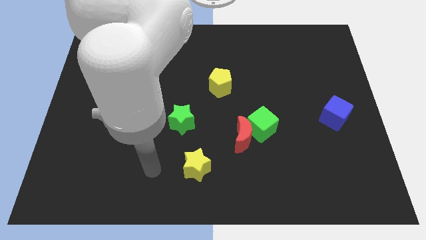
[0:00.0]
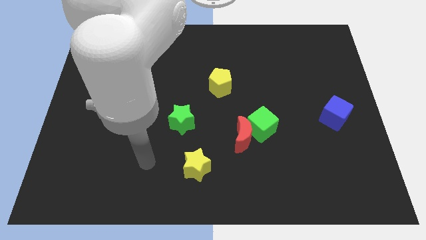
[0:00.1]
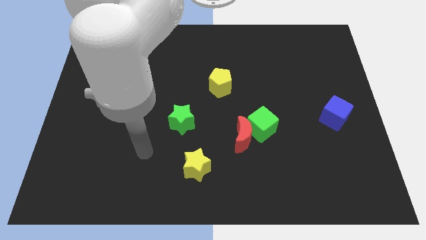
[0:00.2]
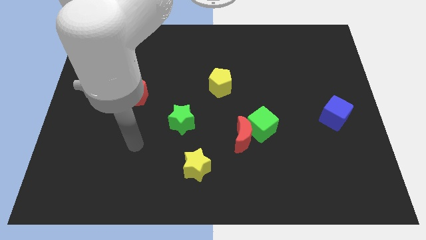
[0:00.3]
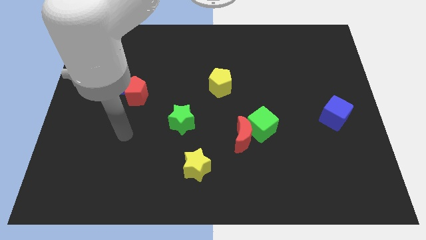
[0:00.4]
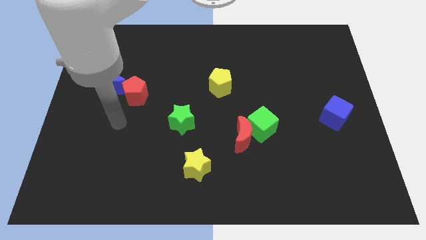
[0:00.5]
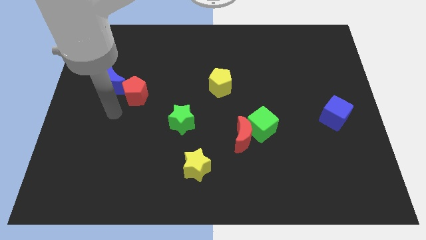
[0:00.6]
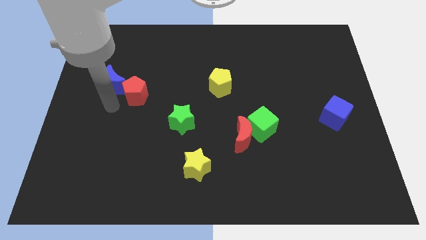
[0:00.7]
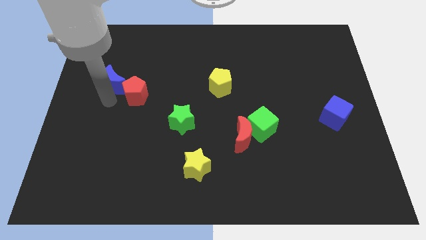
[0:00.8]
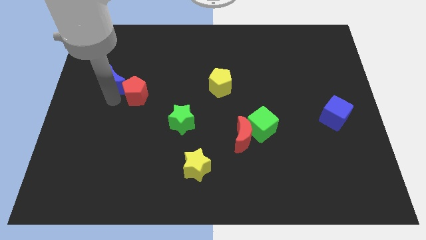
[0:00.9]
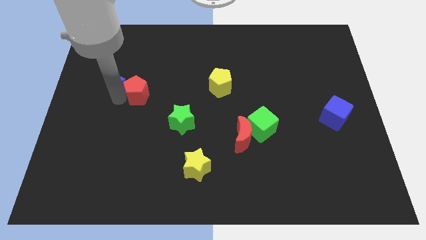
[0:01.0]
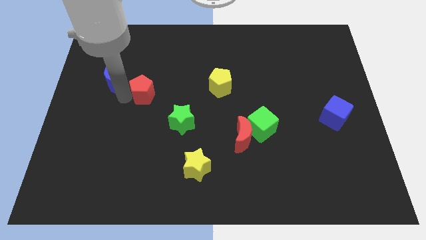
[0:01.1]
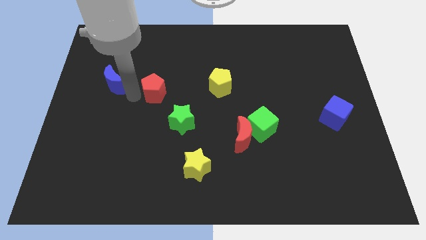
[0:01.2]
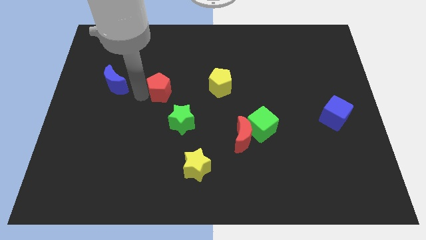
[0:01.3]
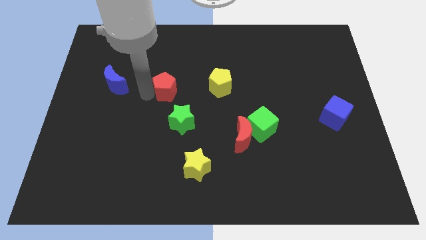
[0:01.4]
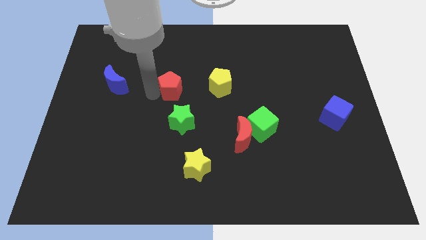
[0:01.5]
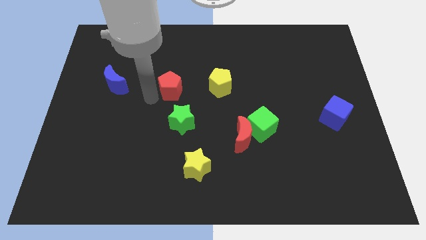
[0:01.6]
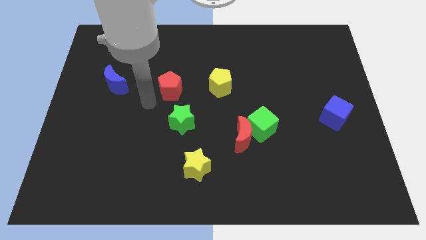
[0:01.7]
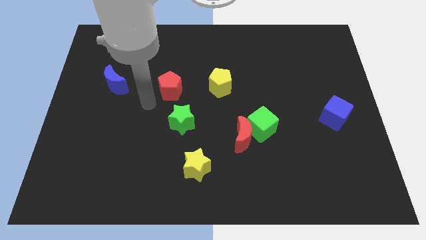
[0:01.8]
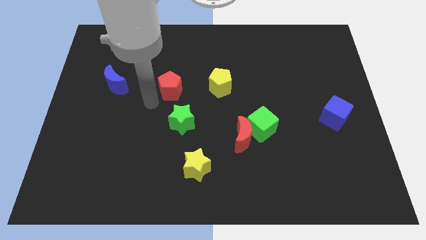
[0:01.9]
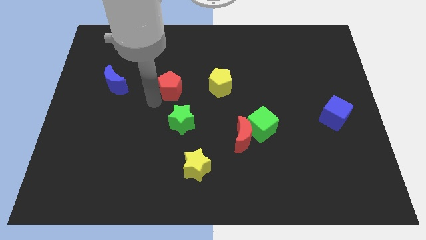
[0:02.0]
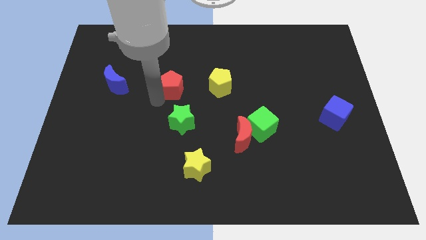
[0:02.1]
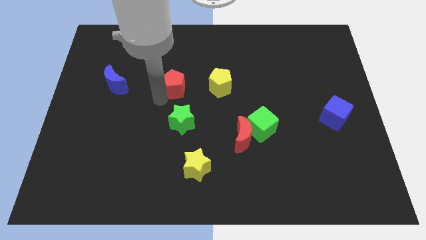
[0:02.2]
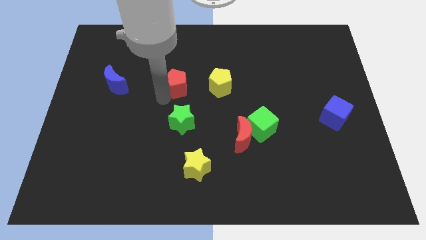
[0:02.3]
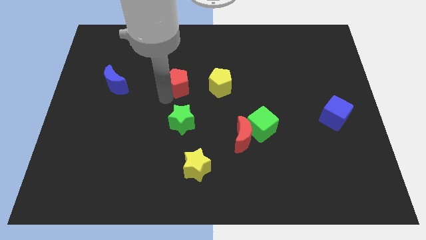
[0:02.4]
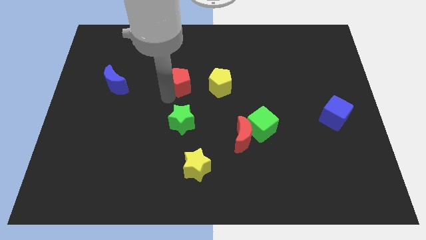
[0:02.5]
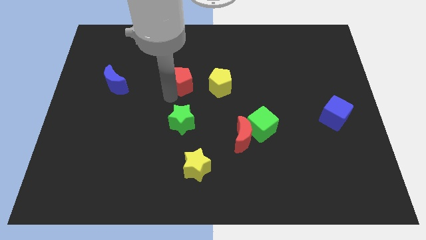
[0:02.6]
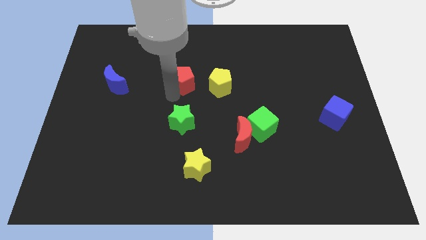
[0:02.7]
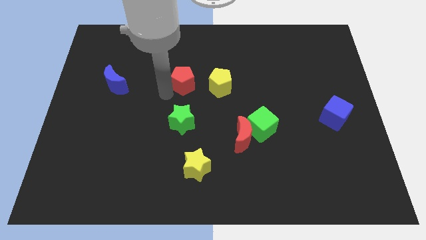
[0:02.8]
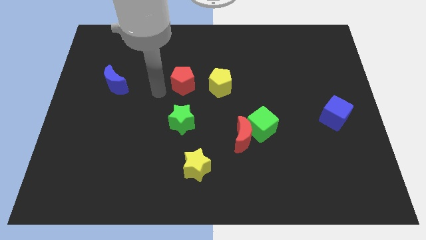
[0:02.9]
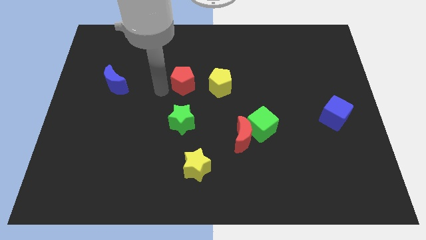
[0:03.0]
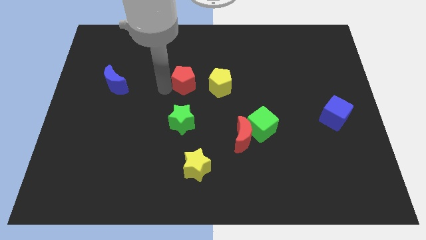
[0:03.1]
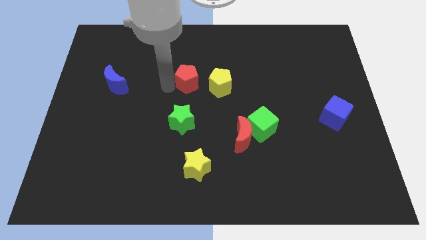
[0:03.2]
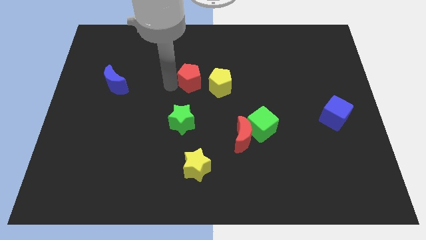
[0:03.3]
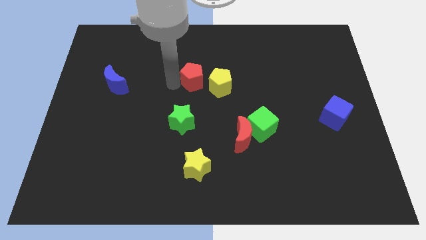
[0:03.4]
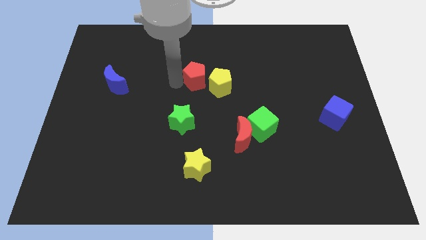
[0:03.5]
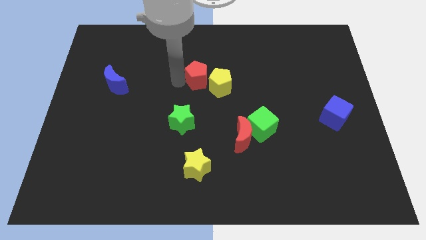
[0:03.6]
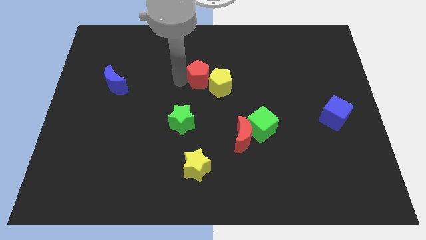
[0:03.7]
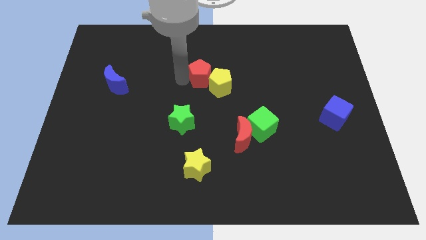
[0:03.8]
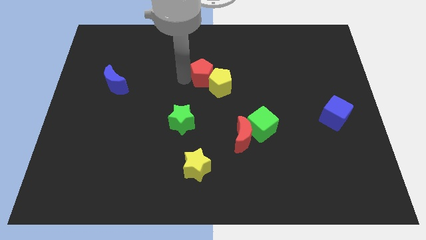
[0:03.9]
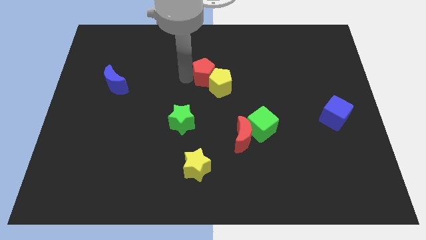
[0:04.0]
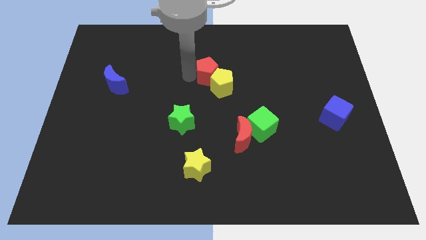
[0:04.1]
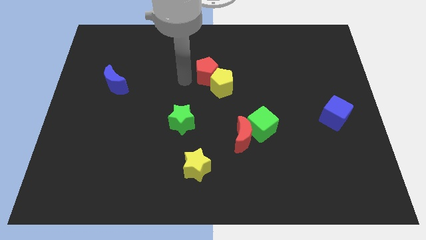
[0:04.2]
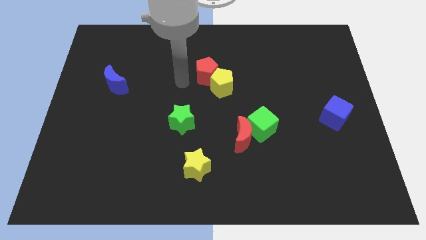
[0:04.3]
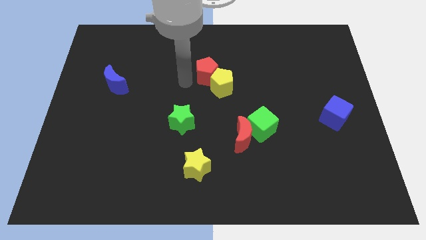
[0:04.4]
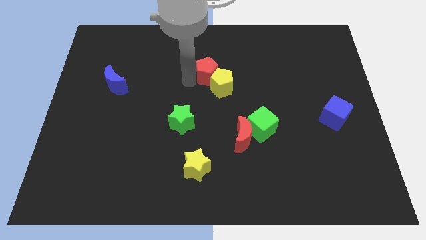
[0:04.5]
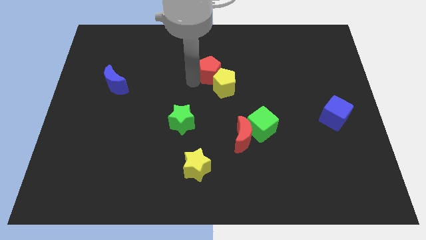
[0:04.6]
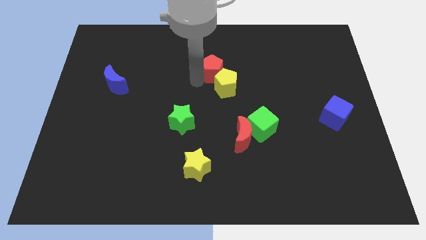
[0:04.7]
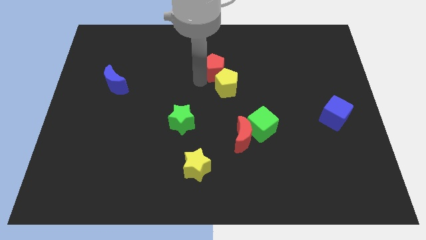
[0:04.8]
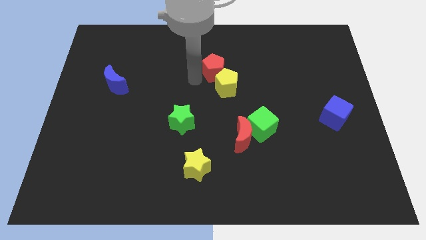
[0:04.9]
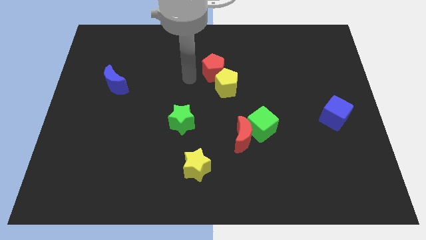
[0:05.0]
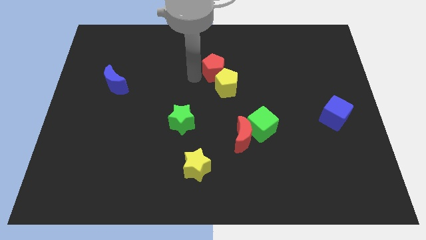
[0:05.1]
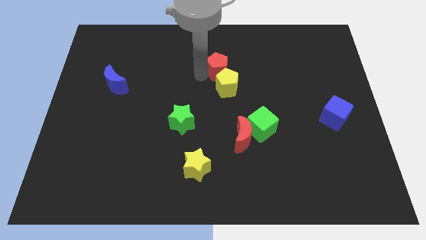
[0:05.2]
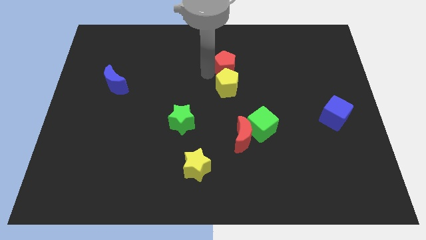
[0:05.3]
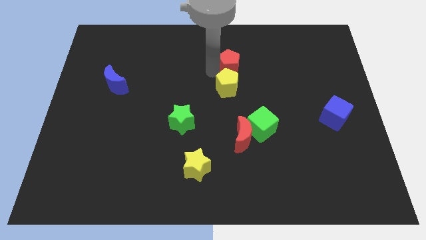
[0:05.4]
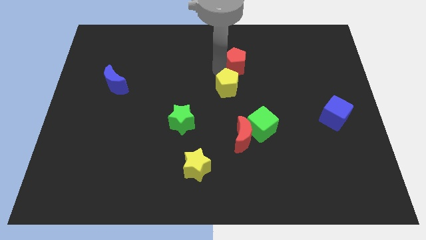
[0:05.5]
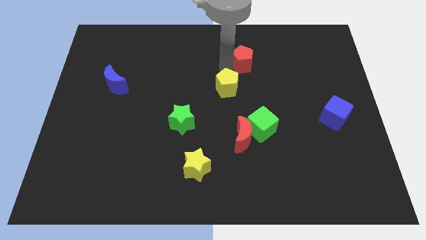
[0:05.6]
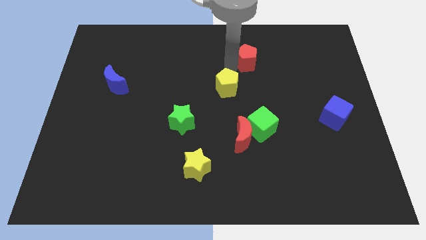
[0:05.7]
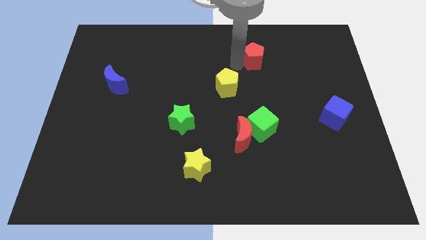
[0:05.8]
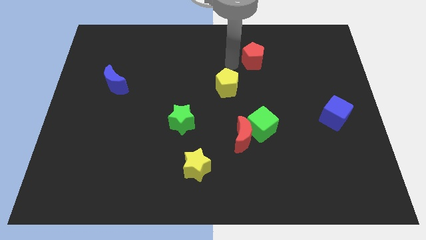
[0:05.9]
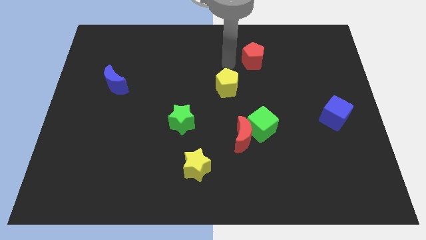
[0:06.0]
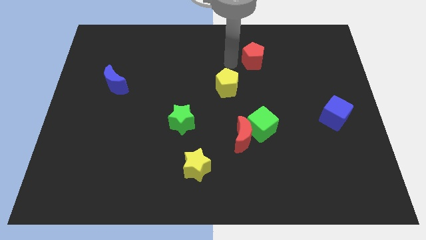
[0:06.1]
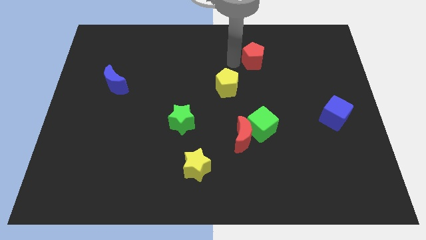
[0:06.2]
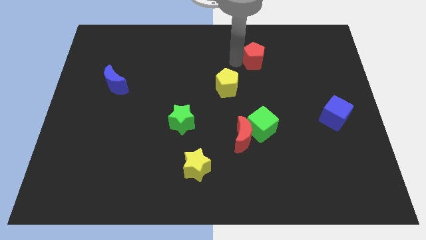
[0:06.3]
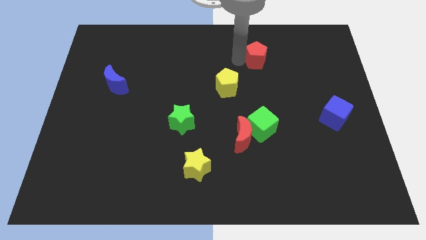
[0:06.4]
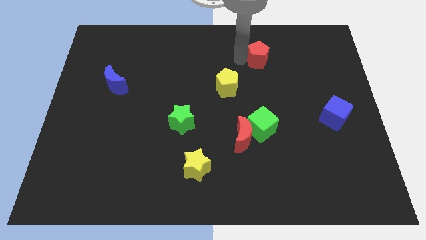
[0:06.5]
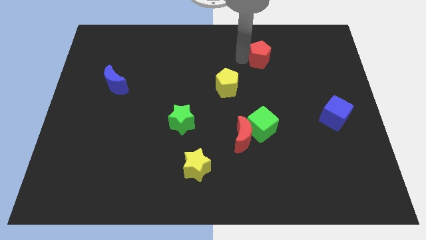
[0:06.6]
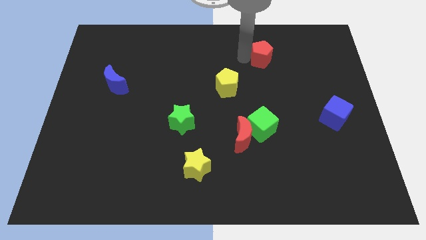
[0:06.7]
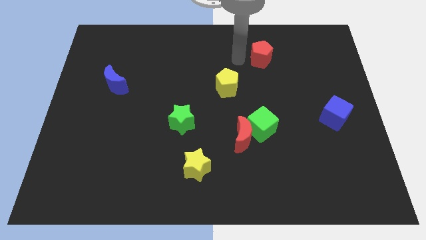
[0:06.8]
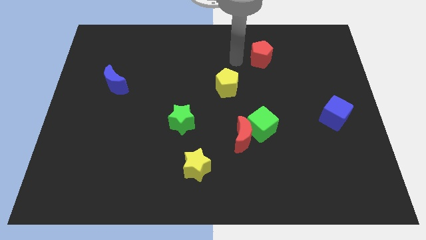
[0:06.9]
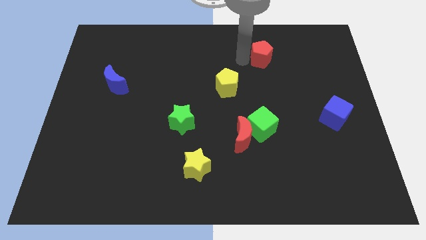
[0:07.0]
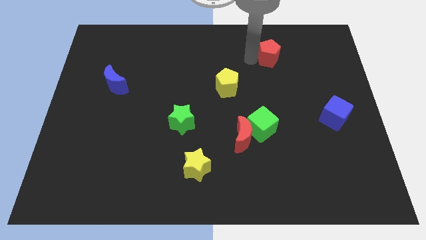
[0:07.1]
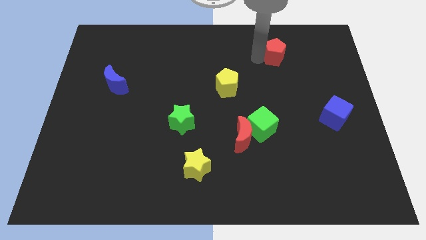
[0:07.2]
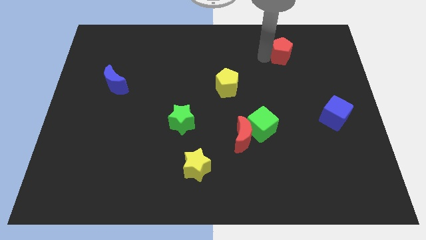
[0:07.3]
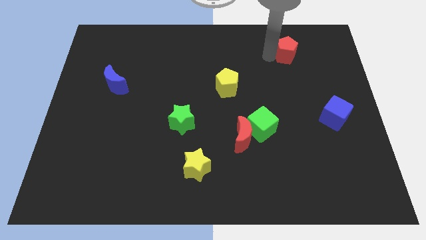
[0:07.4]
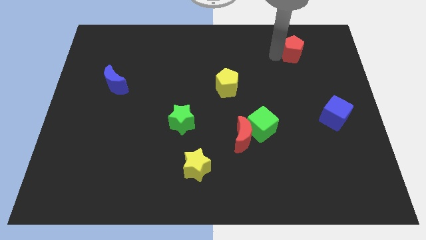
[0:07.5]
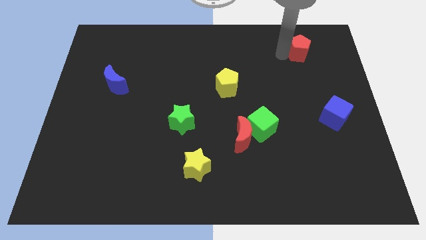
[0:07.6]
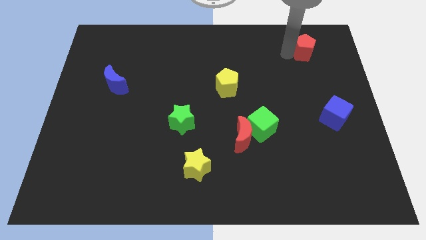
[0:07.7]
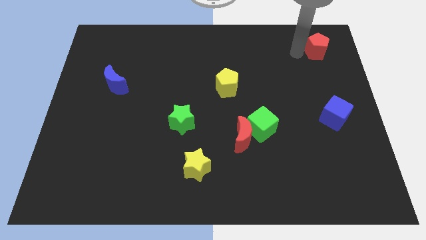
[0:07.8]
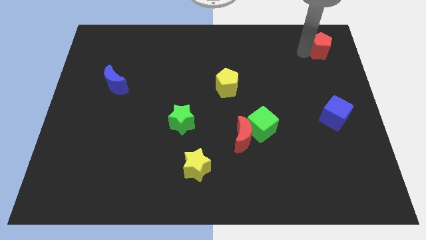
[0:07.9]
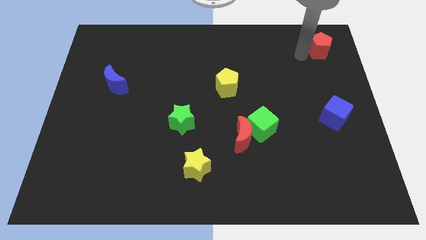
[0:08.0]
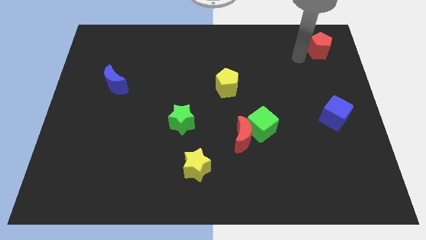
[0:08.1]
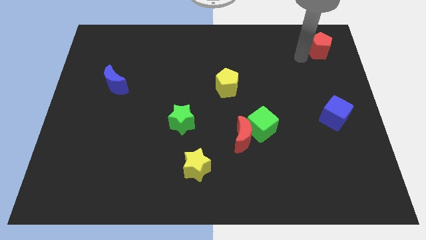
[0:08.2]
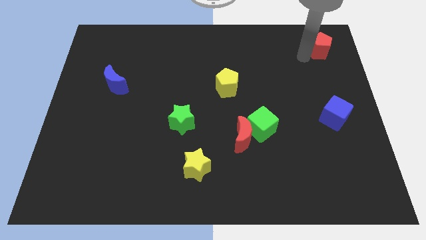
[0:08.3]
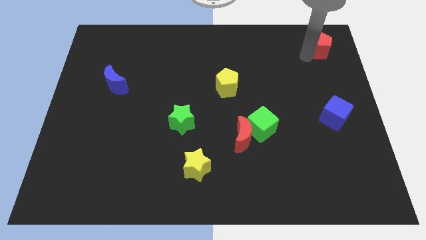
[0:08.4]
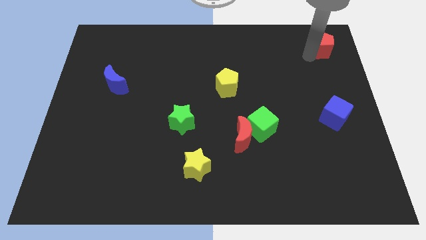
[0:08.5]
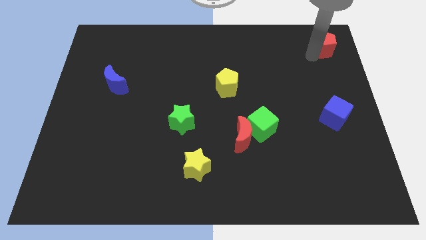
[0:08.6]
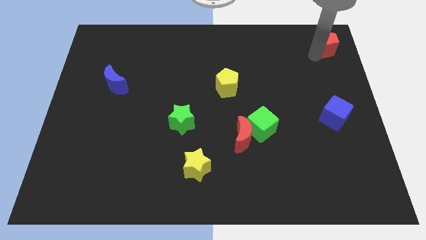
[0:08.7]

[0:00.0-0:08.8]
put the red pentagon to the top right corner
